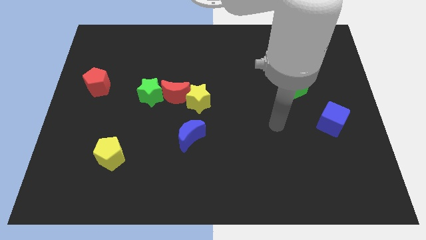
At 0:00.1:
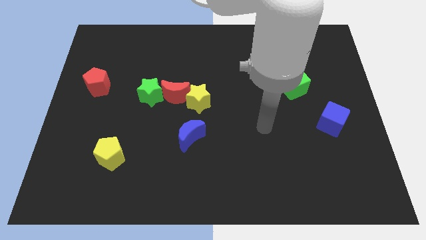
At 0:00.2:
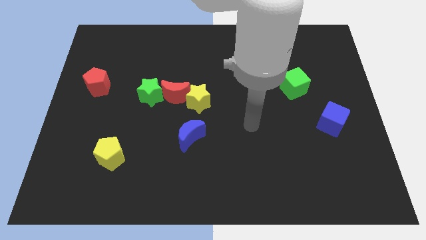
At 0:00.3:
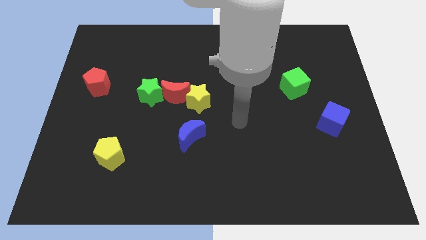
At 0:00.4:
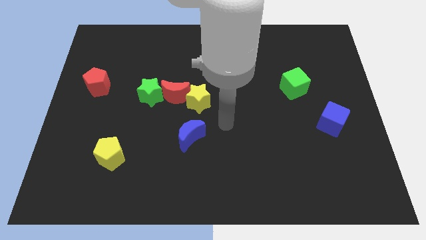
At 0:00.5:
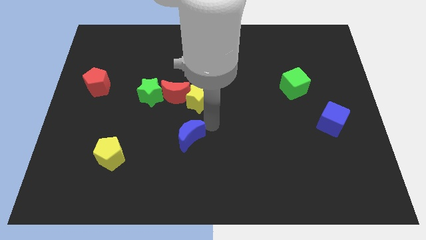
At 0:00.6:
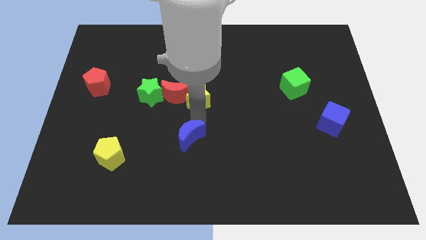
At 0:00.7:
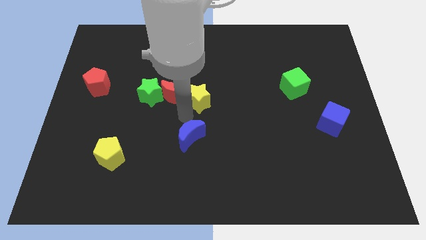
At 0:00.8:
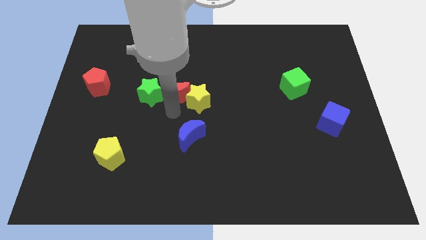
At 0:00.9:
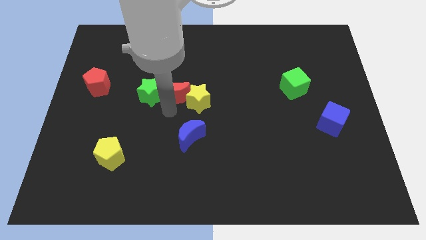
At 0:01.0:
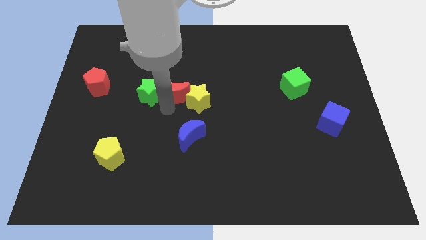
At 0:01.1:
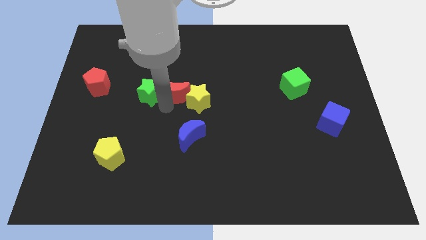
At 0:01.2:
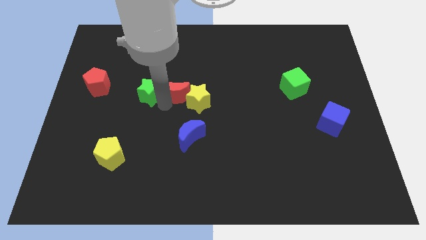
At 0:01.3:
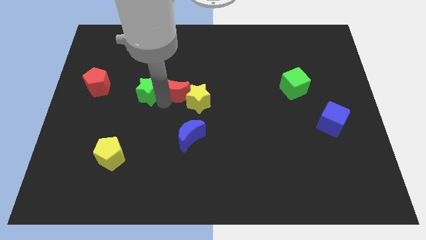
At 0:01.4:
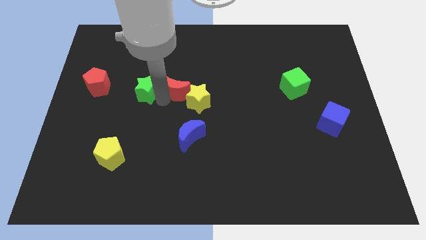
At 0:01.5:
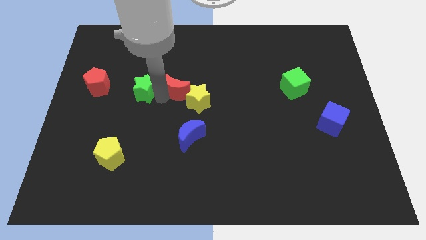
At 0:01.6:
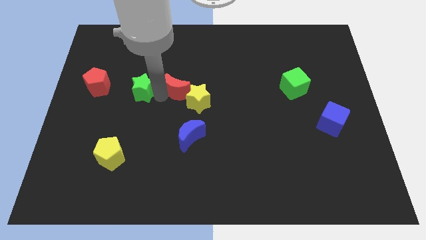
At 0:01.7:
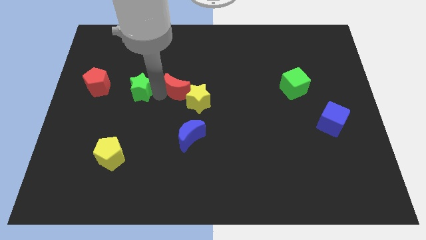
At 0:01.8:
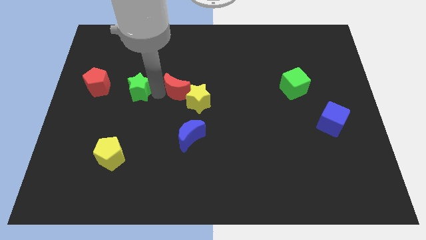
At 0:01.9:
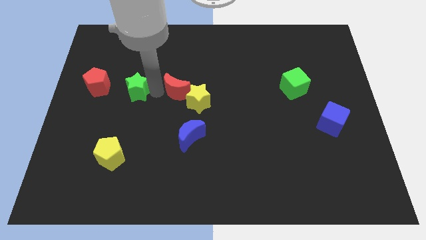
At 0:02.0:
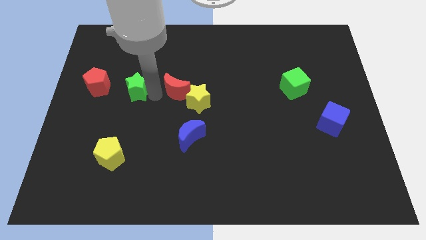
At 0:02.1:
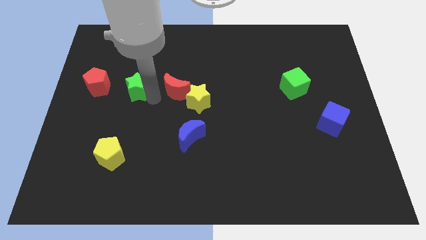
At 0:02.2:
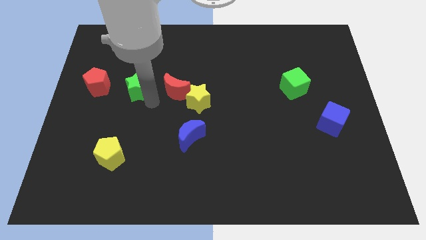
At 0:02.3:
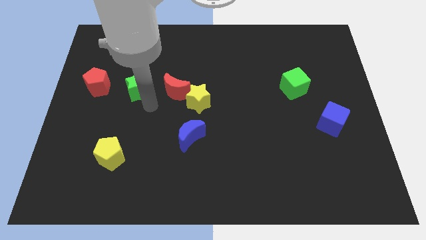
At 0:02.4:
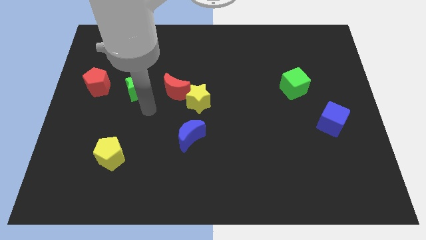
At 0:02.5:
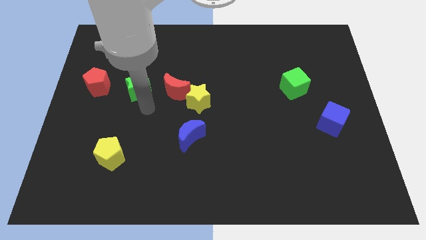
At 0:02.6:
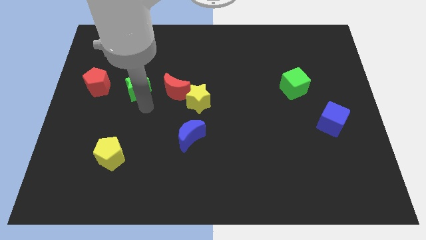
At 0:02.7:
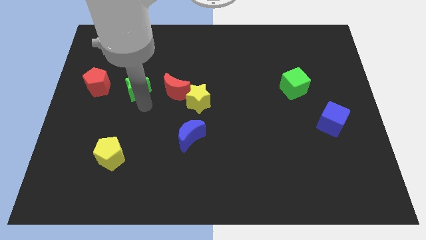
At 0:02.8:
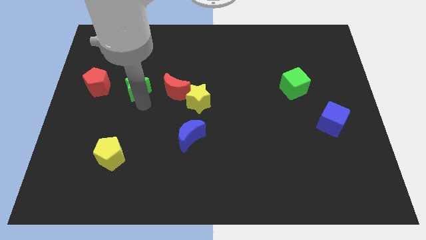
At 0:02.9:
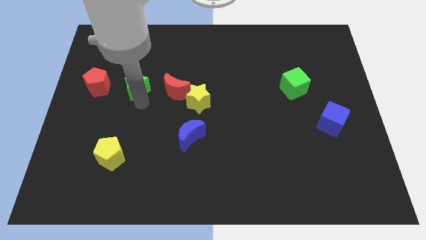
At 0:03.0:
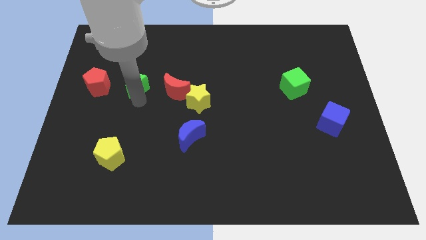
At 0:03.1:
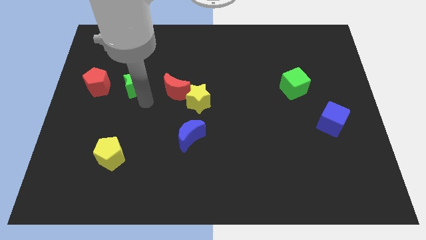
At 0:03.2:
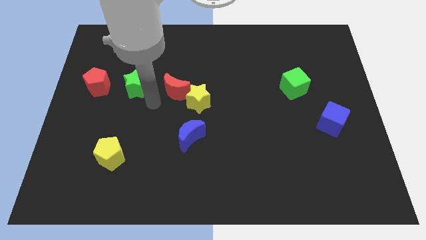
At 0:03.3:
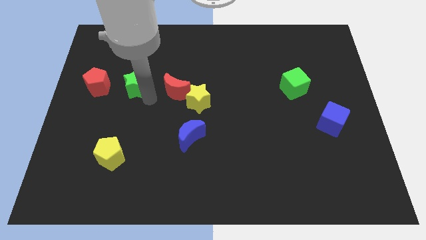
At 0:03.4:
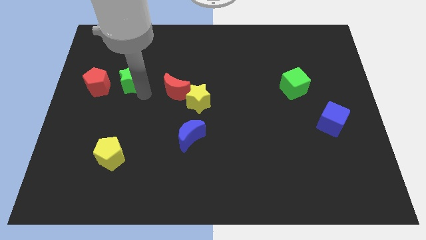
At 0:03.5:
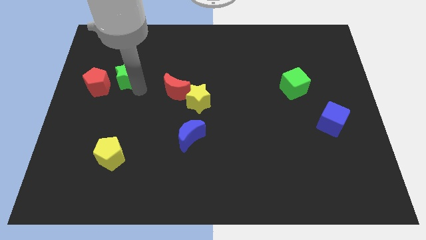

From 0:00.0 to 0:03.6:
slightly push the green star diagonally up and to the left

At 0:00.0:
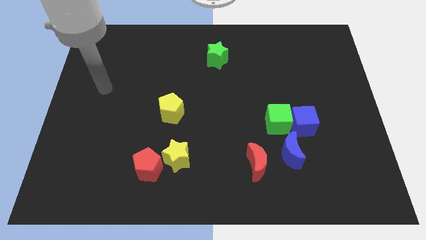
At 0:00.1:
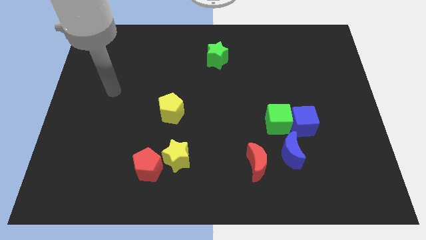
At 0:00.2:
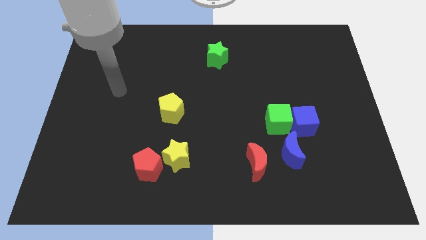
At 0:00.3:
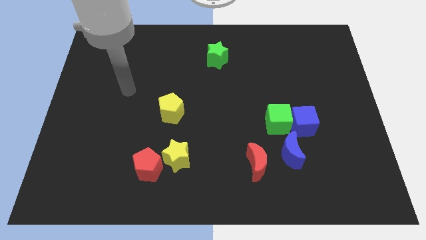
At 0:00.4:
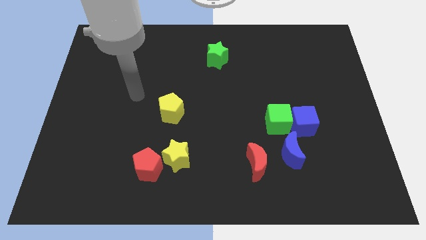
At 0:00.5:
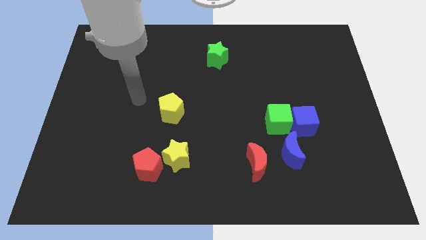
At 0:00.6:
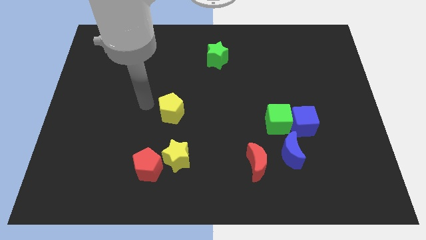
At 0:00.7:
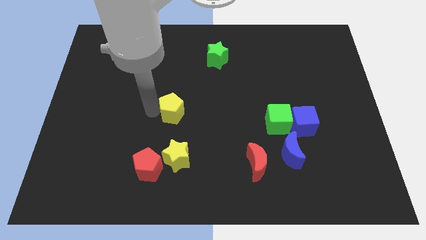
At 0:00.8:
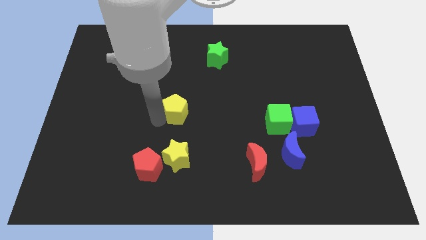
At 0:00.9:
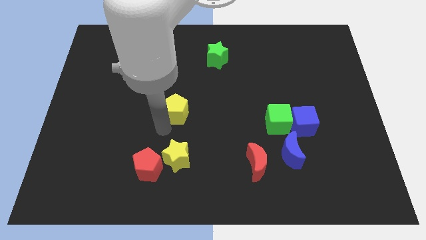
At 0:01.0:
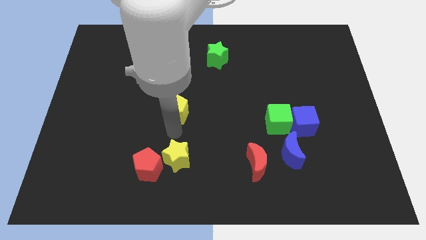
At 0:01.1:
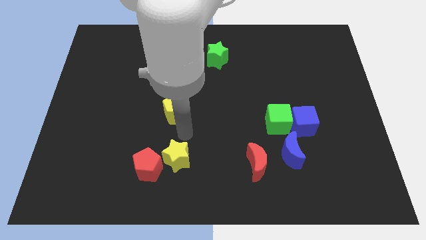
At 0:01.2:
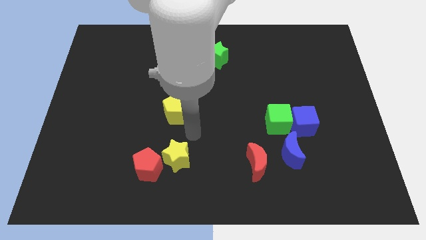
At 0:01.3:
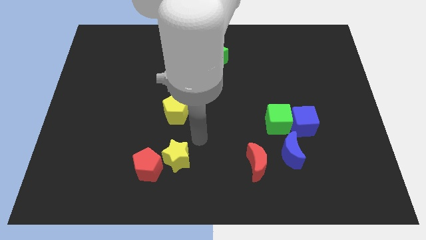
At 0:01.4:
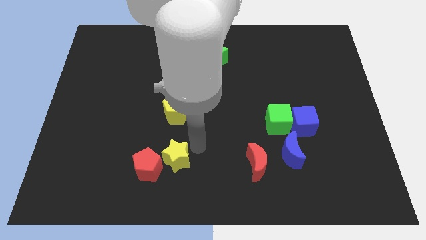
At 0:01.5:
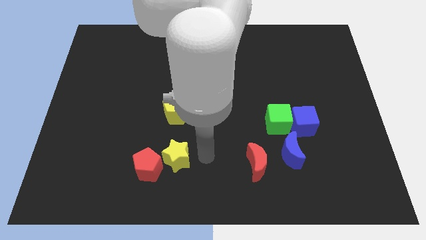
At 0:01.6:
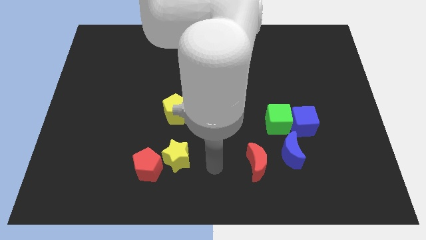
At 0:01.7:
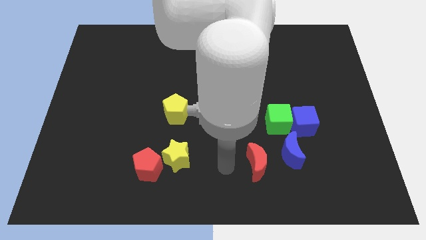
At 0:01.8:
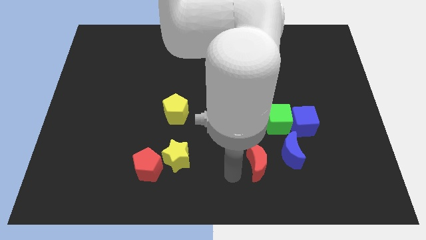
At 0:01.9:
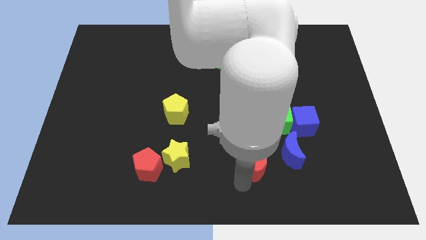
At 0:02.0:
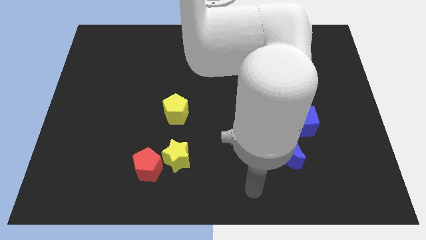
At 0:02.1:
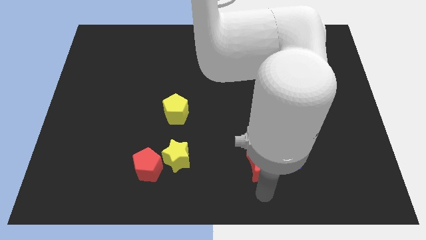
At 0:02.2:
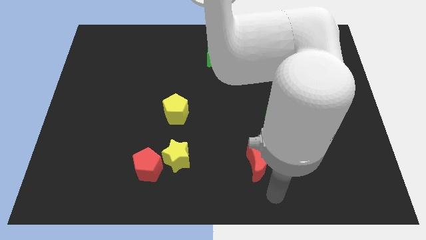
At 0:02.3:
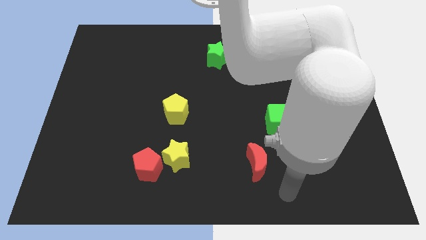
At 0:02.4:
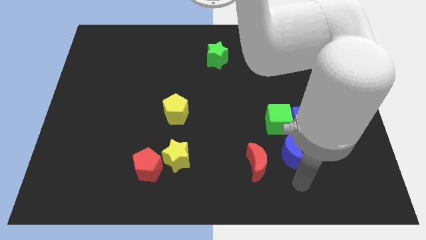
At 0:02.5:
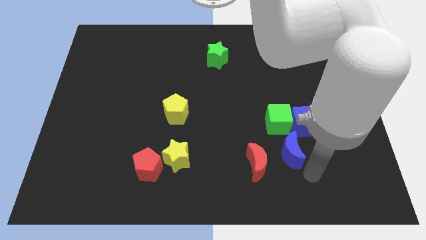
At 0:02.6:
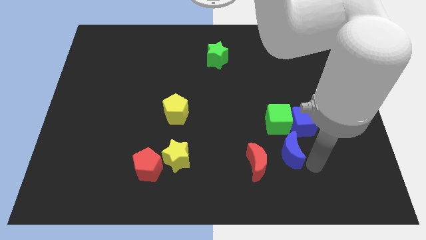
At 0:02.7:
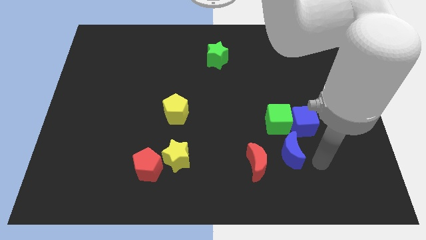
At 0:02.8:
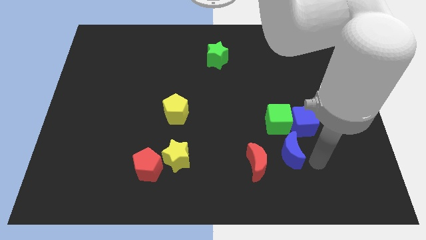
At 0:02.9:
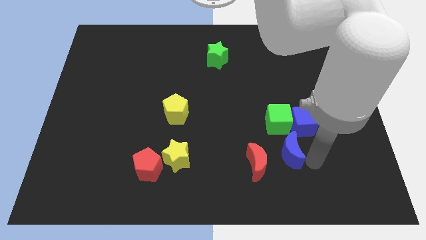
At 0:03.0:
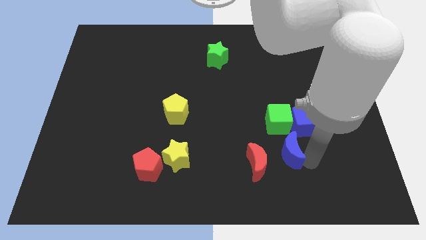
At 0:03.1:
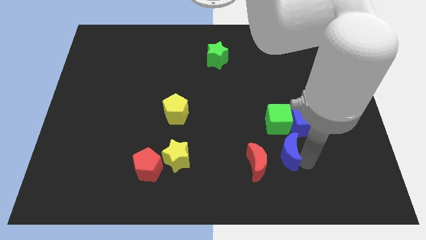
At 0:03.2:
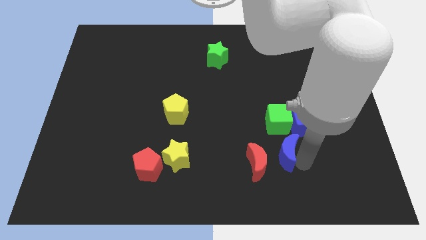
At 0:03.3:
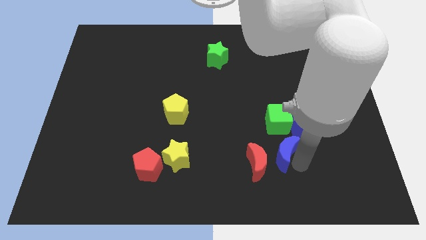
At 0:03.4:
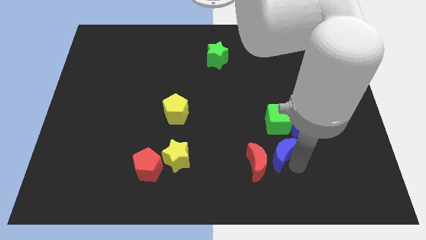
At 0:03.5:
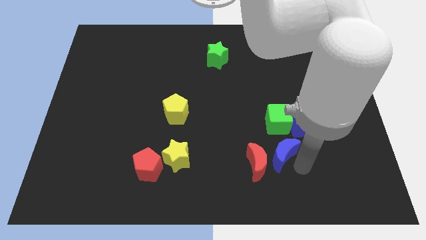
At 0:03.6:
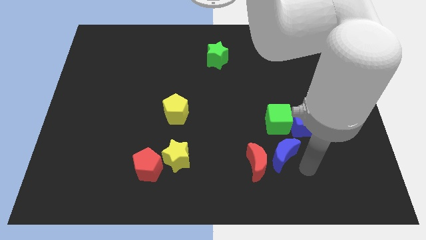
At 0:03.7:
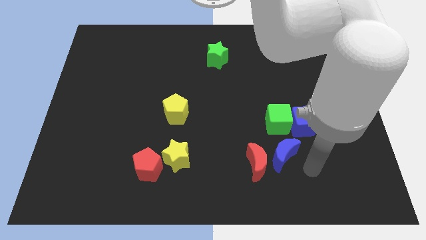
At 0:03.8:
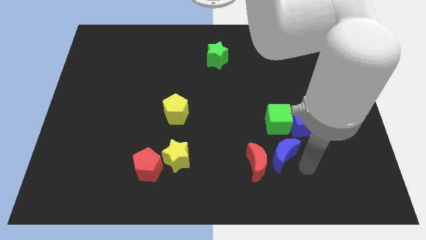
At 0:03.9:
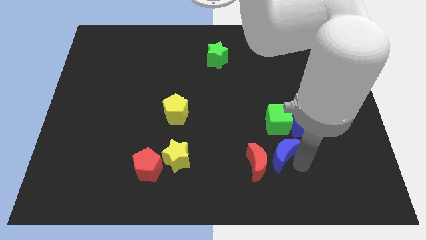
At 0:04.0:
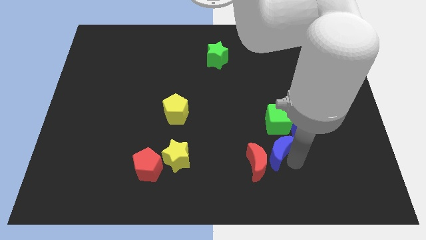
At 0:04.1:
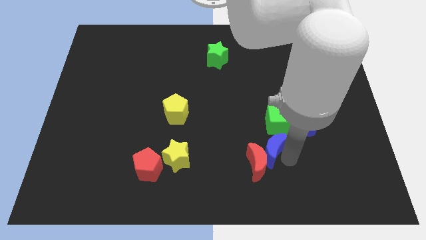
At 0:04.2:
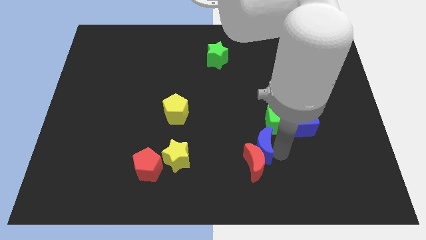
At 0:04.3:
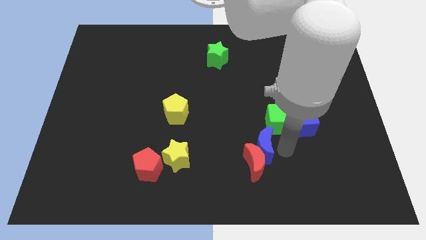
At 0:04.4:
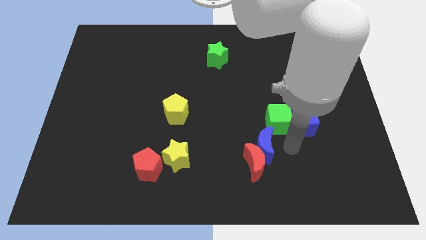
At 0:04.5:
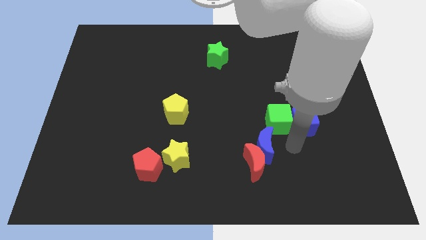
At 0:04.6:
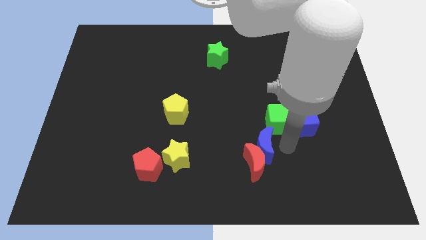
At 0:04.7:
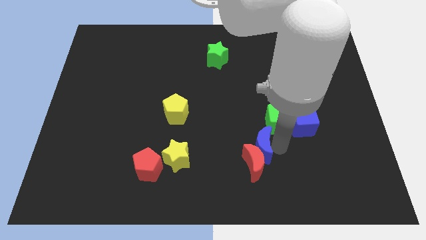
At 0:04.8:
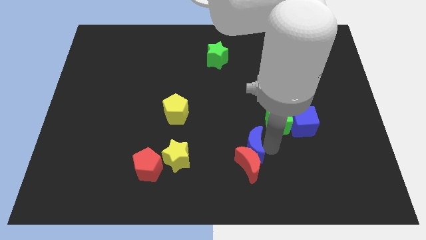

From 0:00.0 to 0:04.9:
slide the blue moon a little bit to the left
